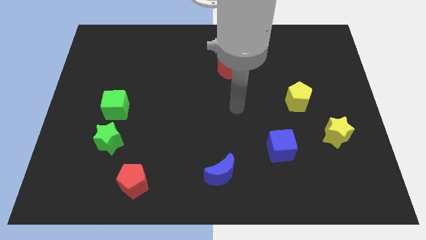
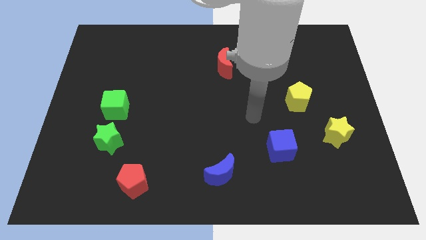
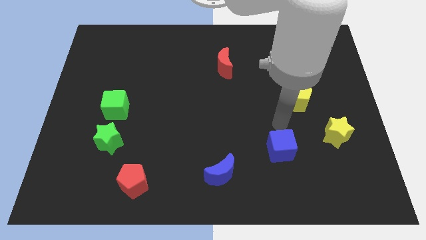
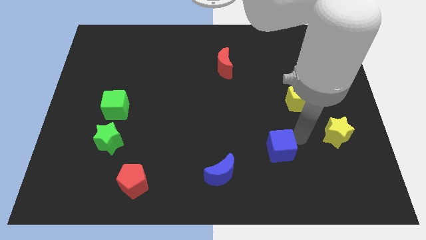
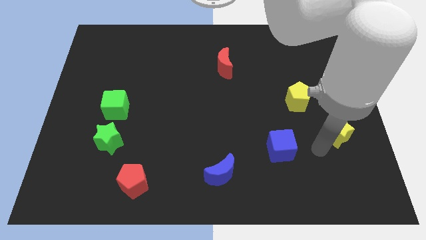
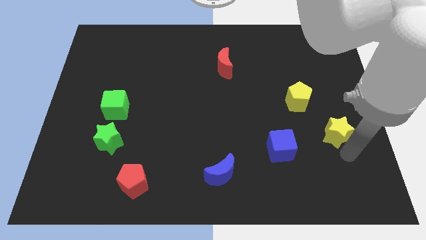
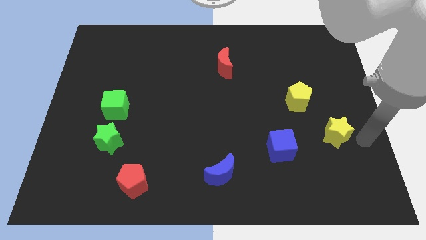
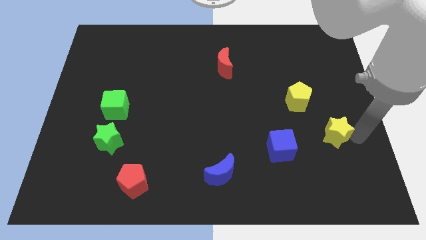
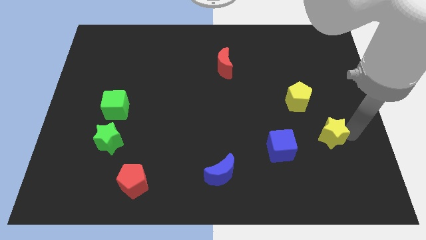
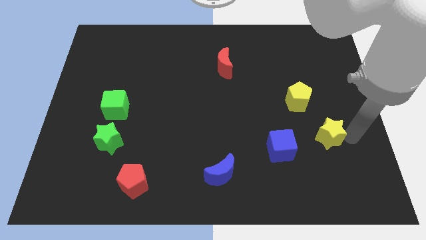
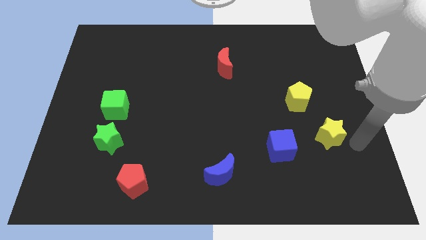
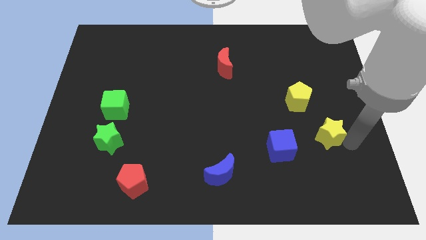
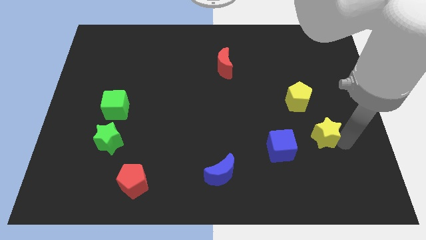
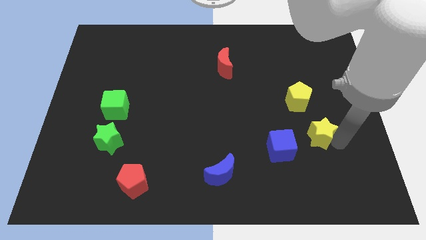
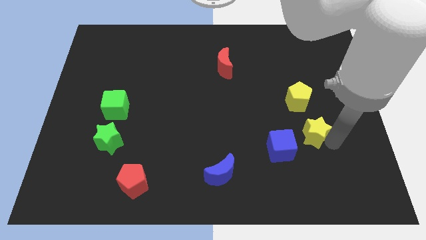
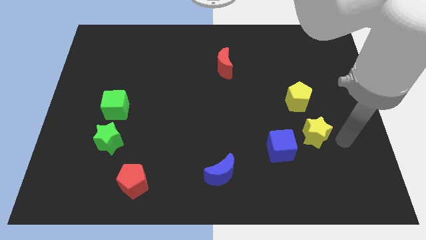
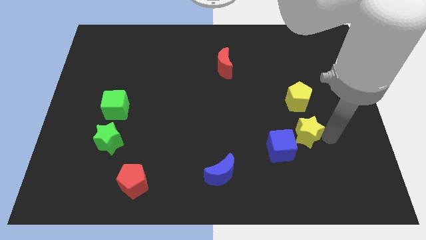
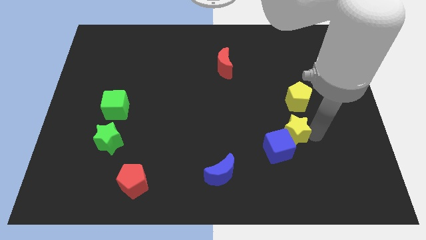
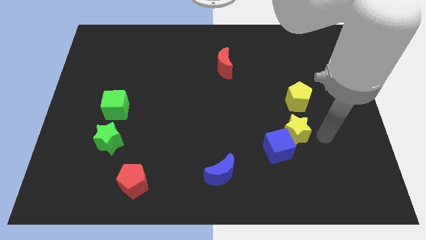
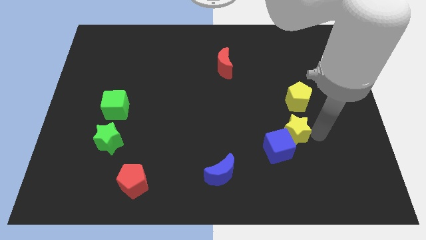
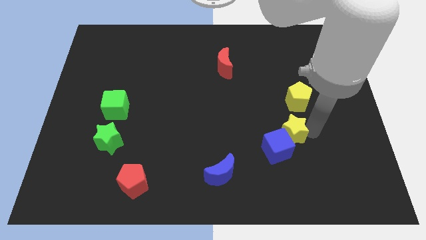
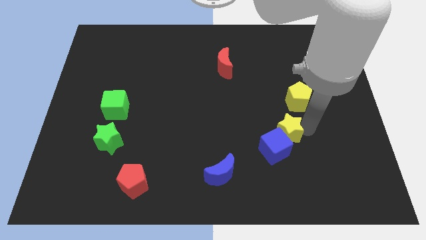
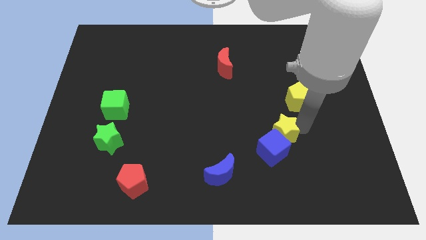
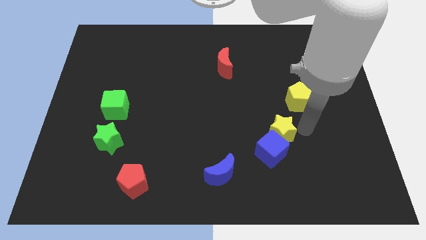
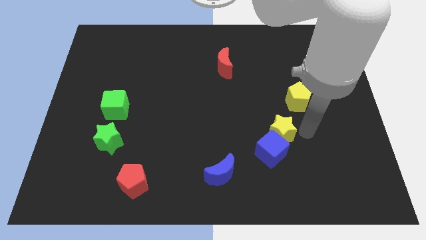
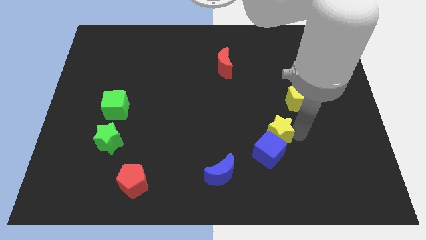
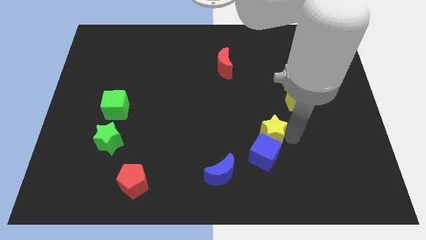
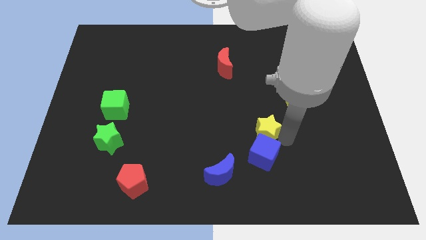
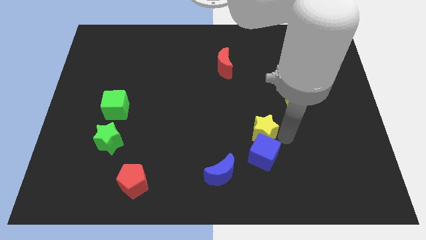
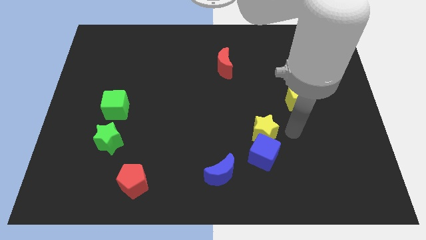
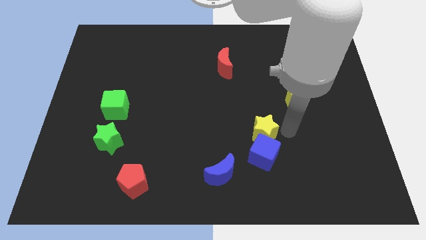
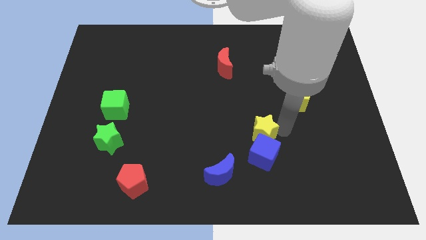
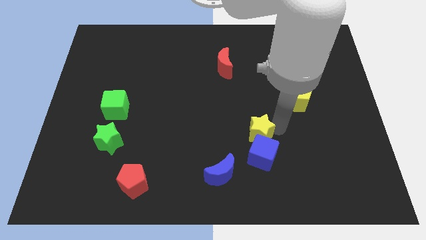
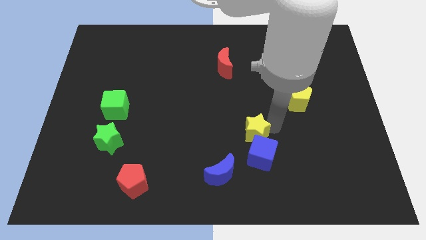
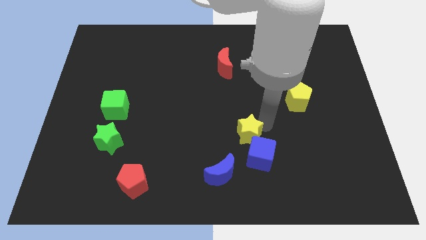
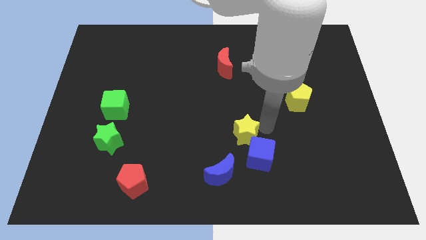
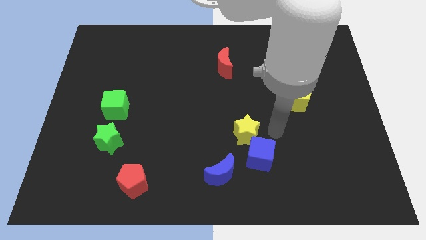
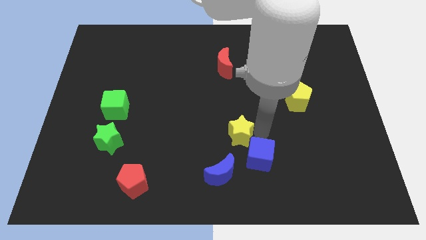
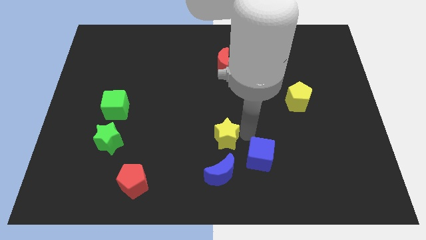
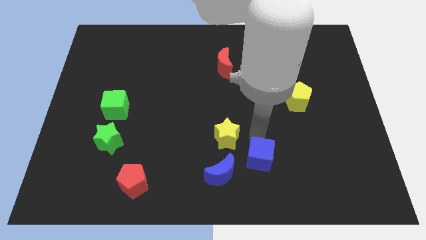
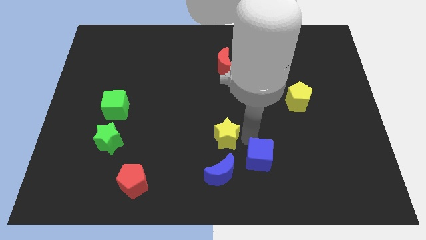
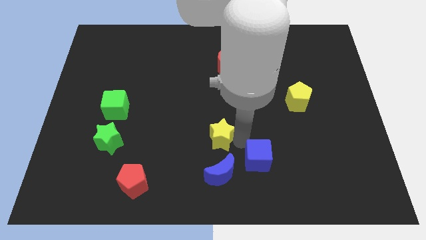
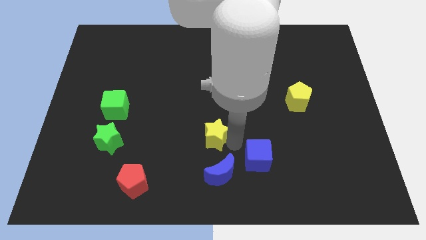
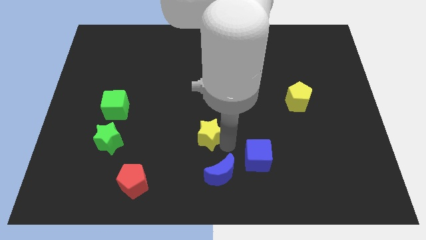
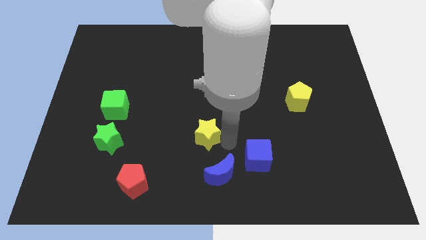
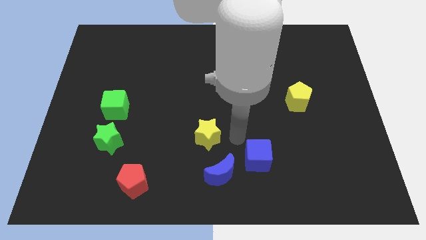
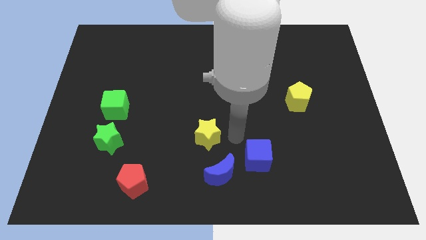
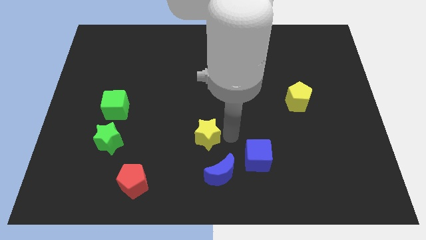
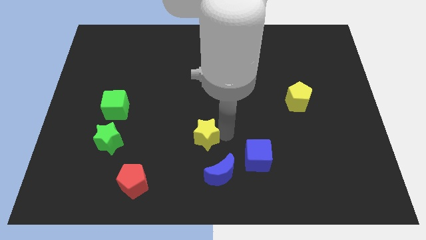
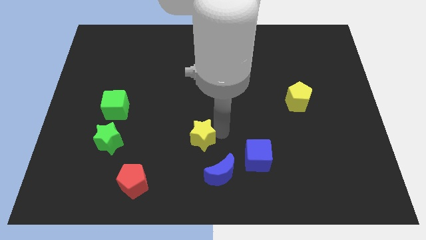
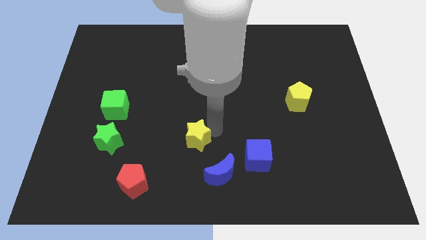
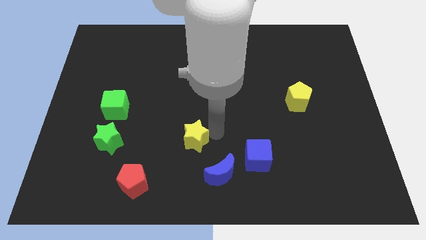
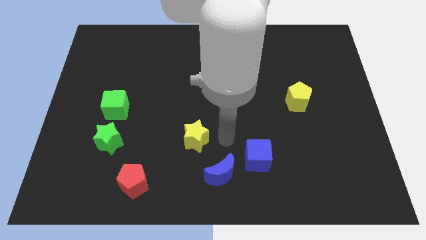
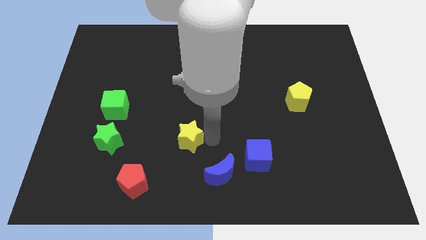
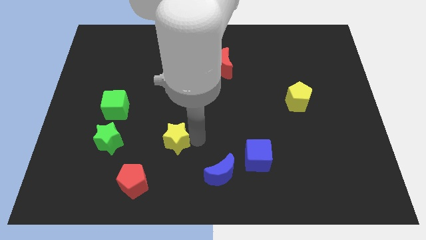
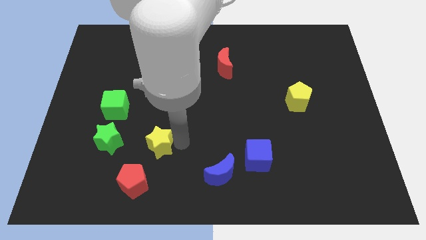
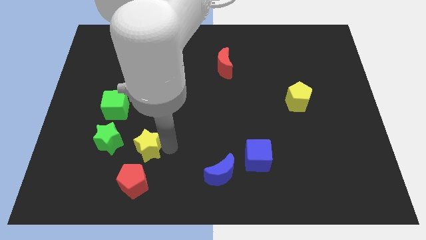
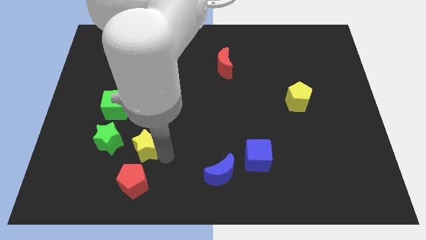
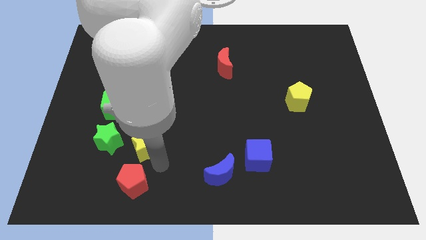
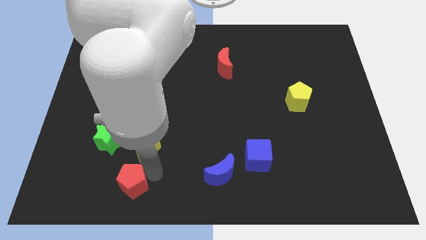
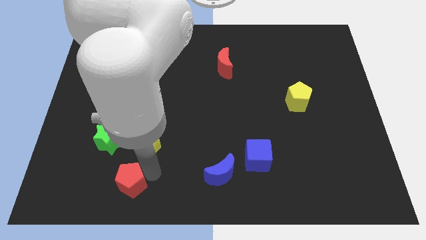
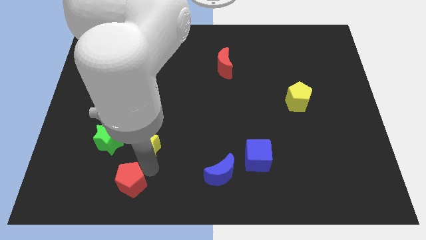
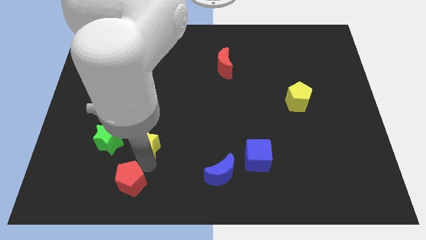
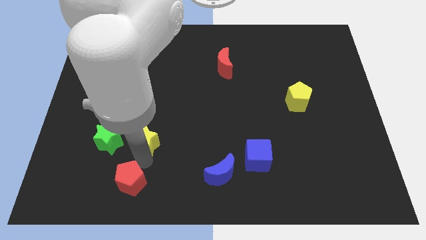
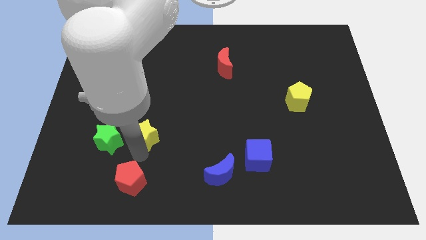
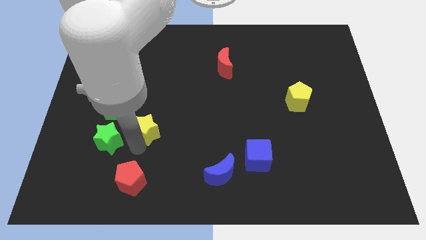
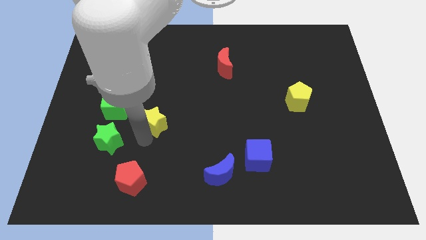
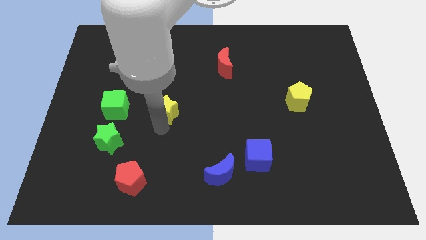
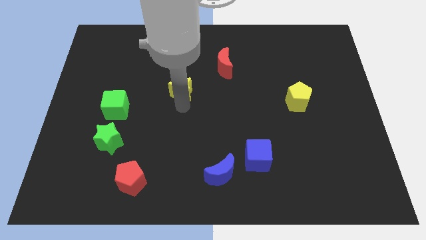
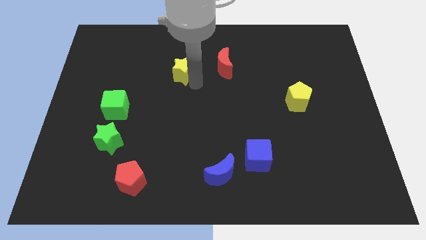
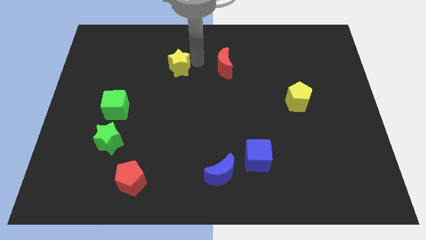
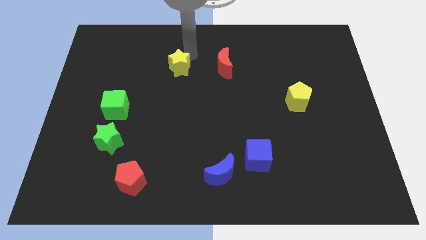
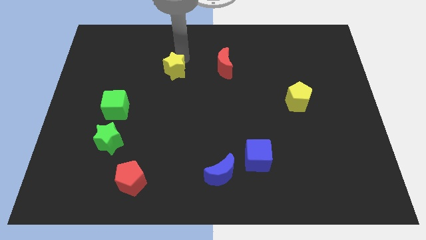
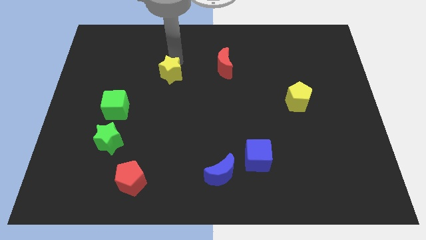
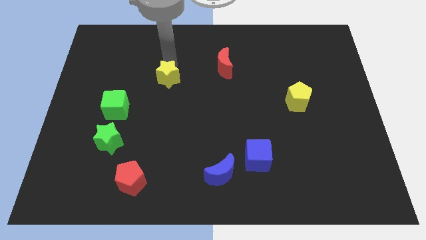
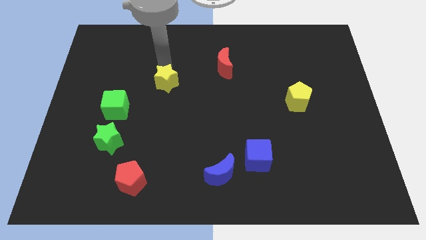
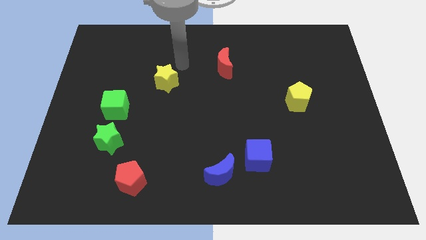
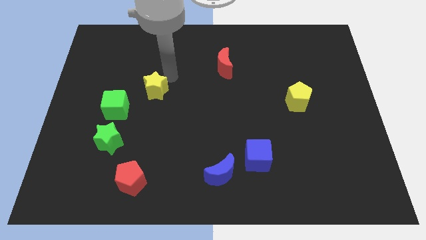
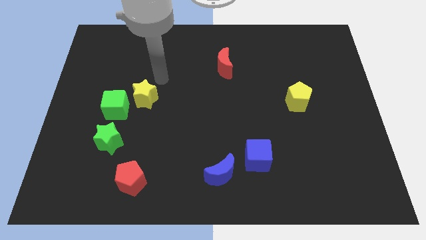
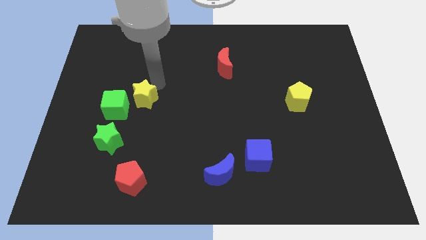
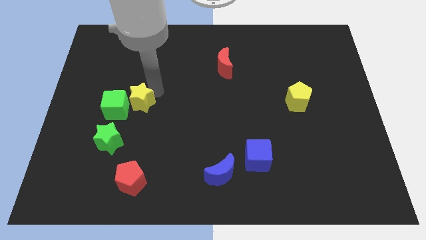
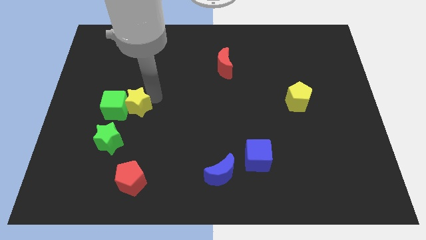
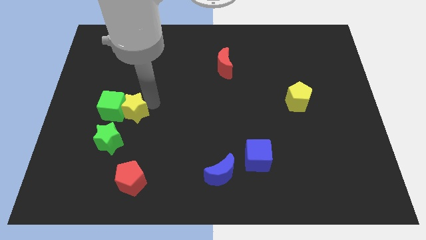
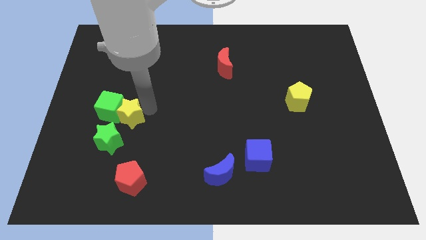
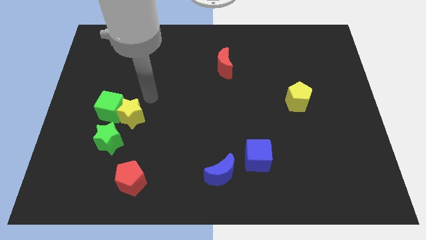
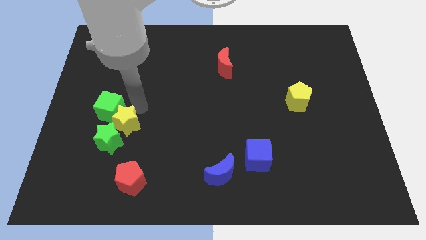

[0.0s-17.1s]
slide the yellow star to the green star
